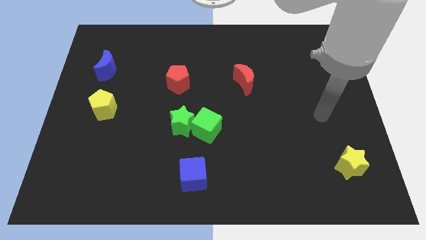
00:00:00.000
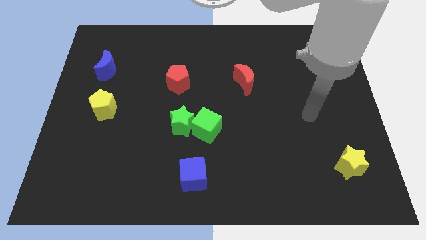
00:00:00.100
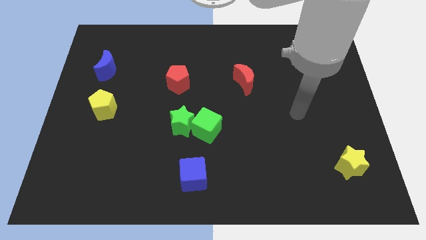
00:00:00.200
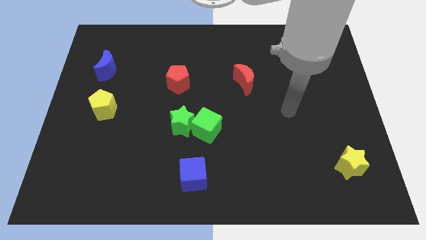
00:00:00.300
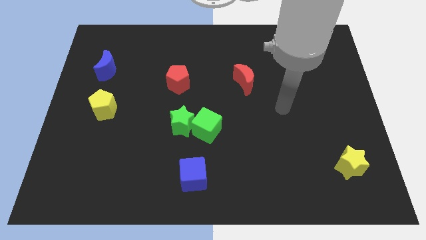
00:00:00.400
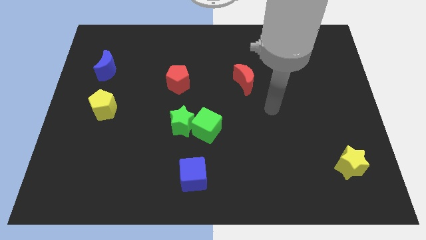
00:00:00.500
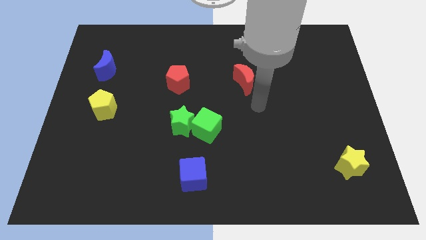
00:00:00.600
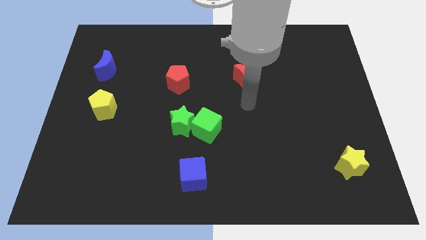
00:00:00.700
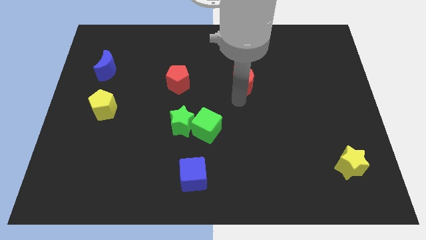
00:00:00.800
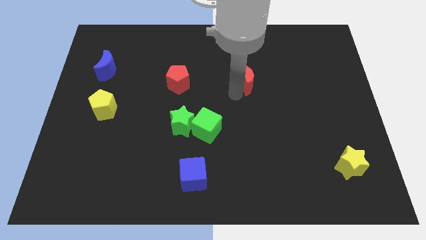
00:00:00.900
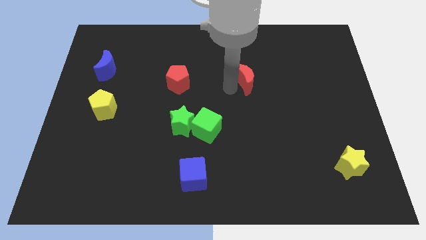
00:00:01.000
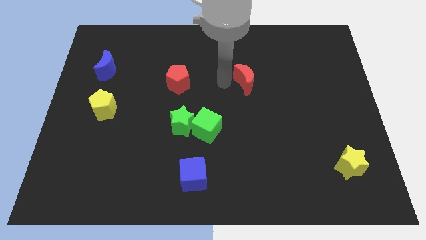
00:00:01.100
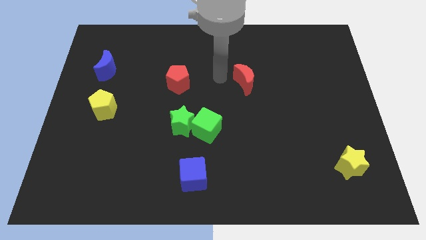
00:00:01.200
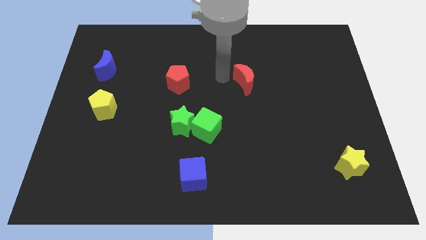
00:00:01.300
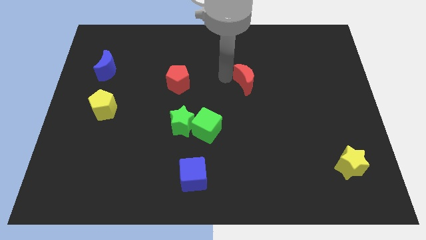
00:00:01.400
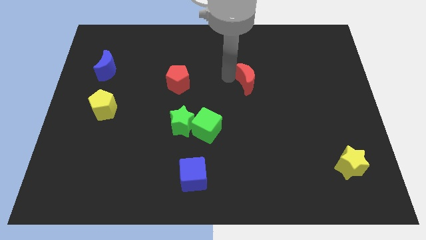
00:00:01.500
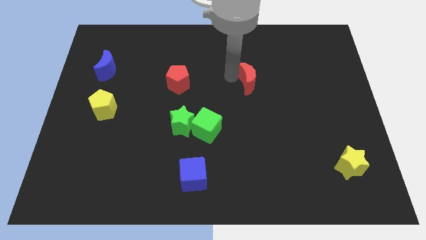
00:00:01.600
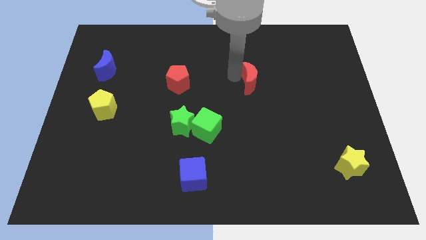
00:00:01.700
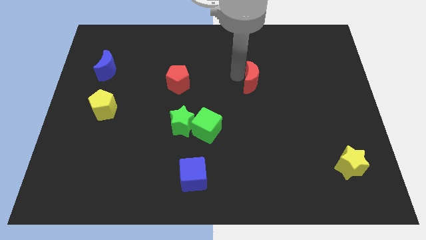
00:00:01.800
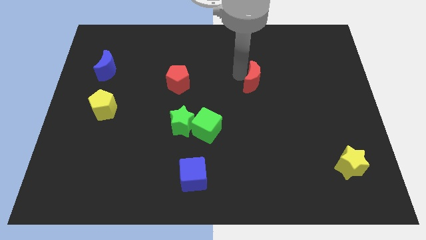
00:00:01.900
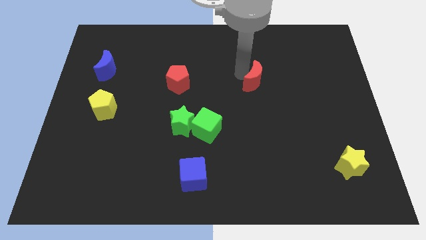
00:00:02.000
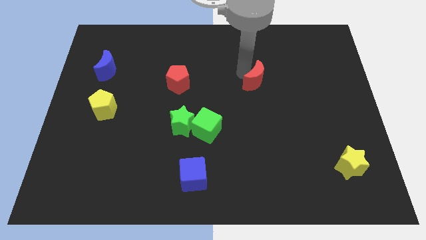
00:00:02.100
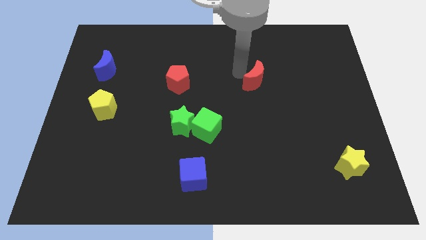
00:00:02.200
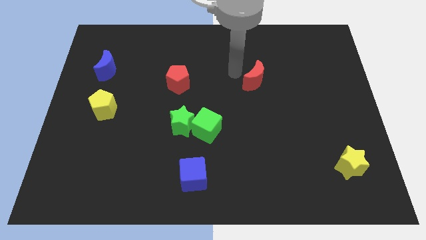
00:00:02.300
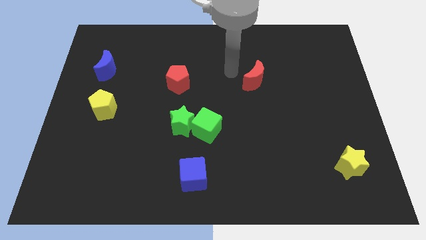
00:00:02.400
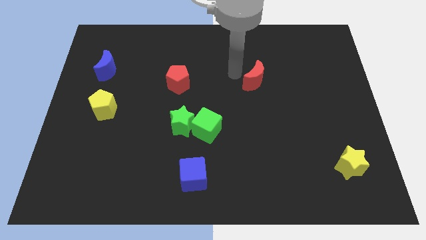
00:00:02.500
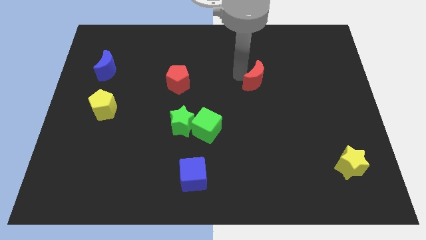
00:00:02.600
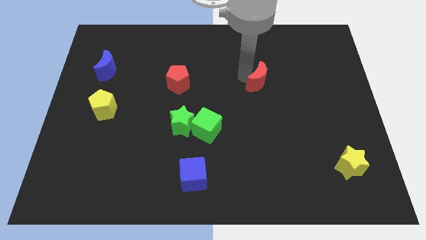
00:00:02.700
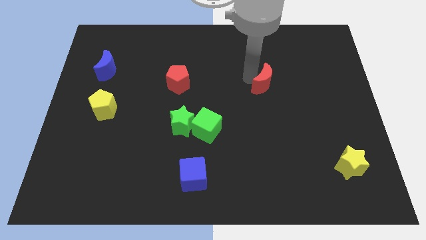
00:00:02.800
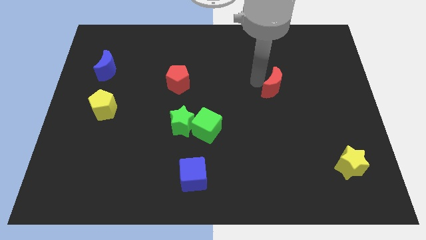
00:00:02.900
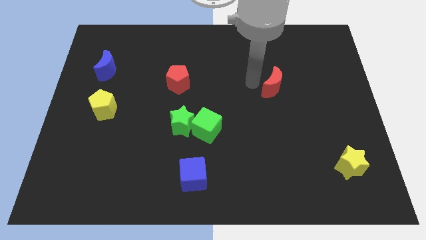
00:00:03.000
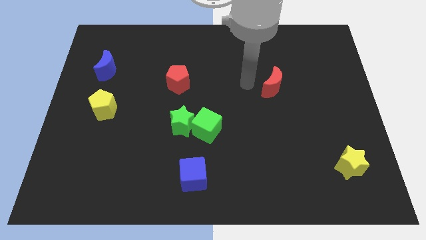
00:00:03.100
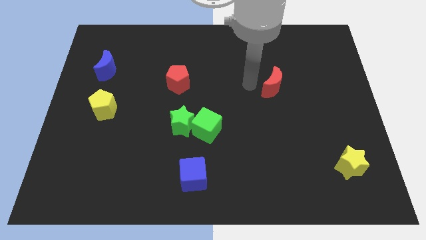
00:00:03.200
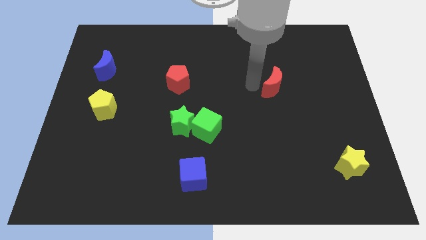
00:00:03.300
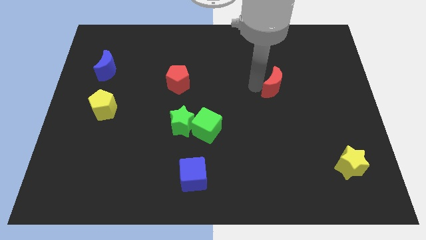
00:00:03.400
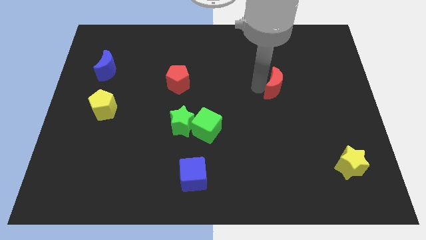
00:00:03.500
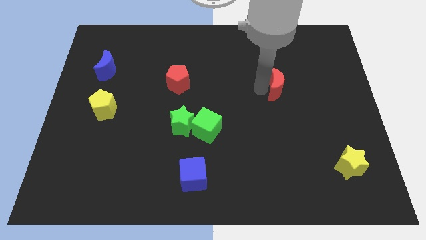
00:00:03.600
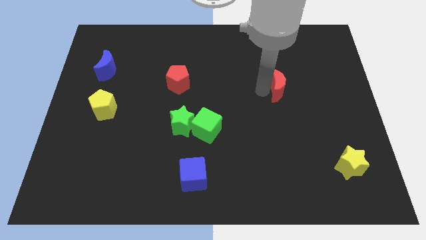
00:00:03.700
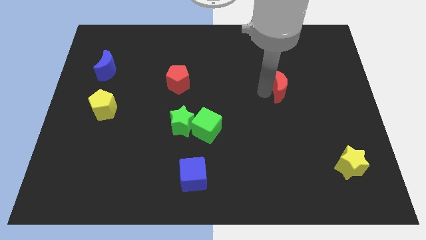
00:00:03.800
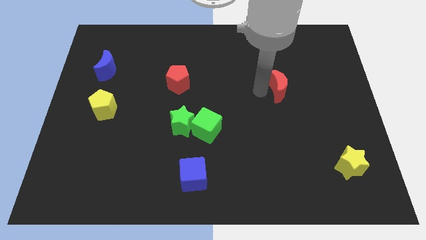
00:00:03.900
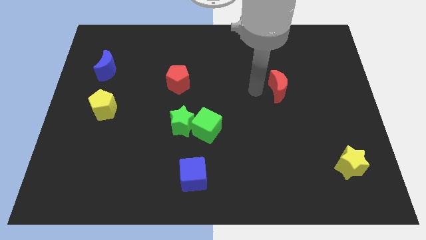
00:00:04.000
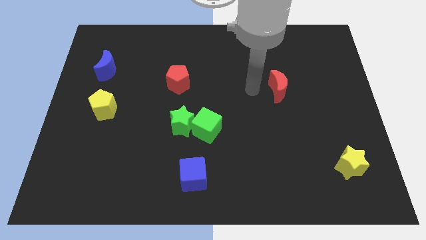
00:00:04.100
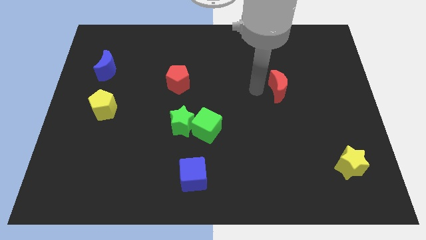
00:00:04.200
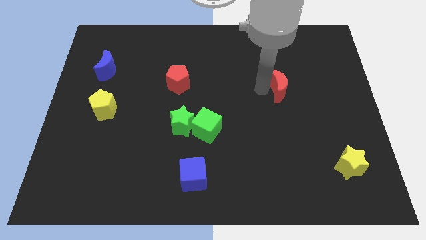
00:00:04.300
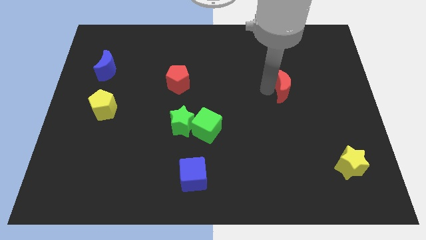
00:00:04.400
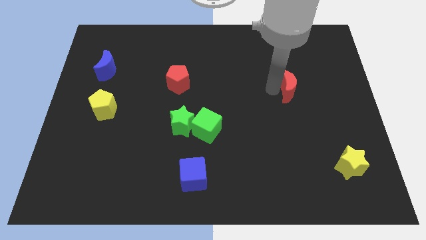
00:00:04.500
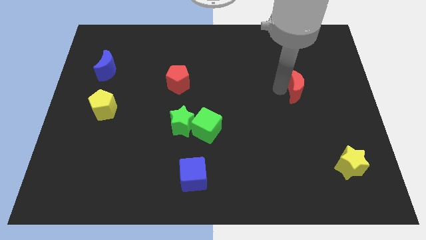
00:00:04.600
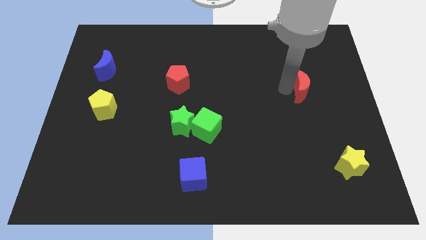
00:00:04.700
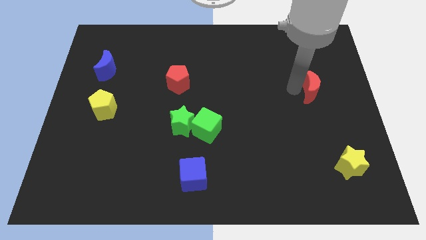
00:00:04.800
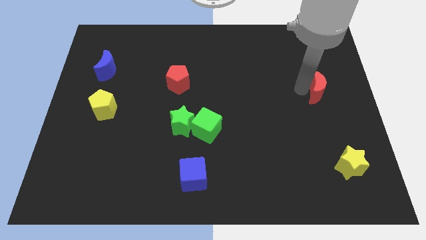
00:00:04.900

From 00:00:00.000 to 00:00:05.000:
move the red moon to the right side

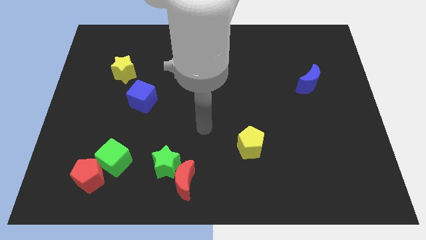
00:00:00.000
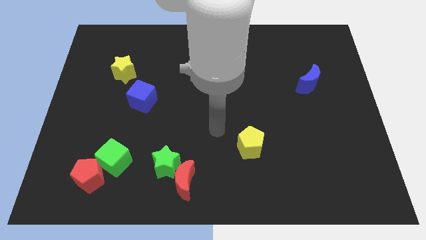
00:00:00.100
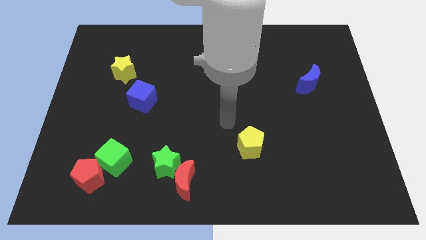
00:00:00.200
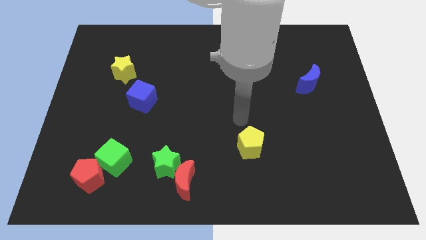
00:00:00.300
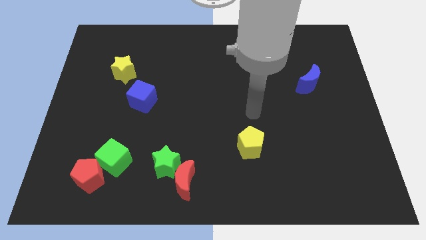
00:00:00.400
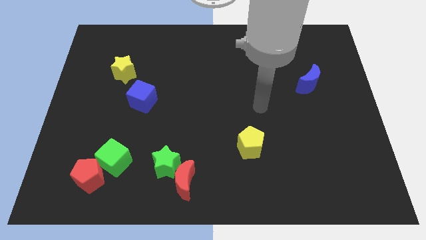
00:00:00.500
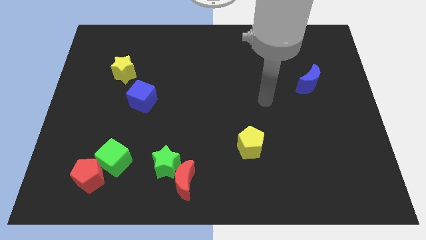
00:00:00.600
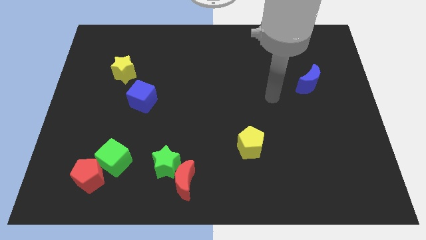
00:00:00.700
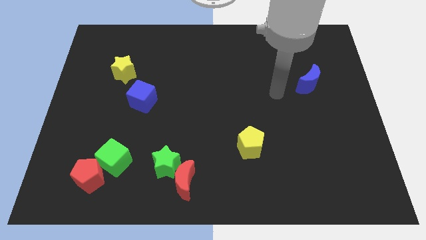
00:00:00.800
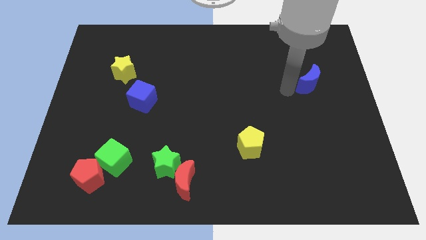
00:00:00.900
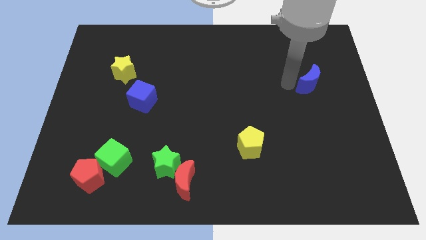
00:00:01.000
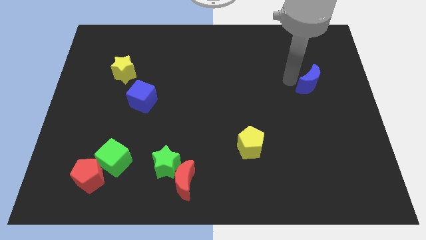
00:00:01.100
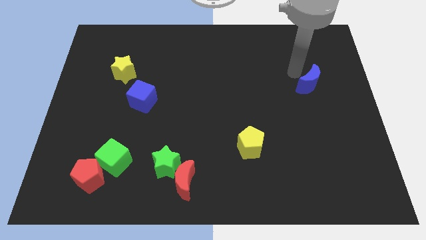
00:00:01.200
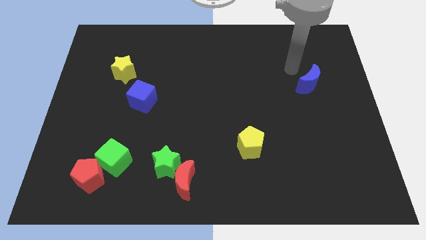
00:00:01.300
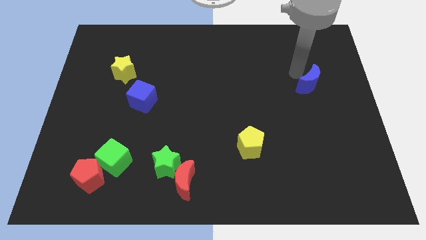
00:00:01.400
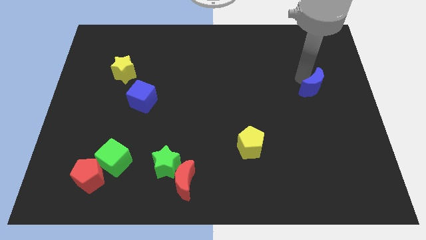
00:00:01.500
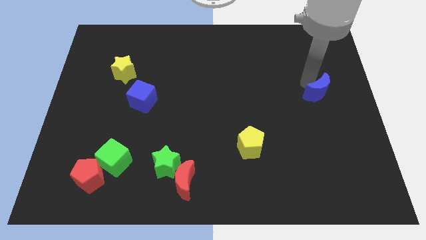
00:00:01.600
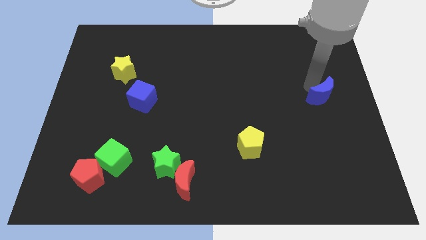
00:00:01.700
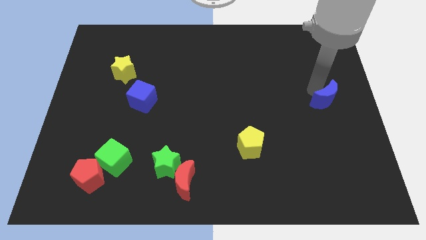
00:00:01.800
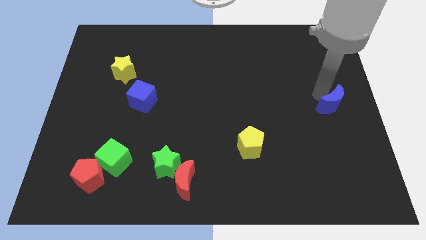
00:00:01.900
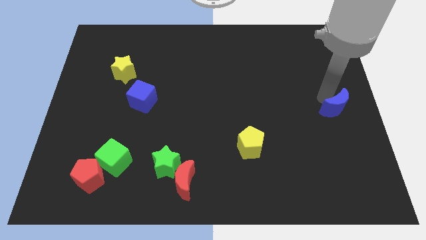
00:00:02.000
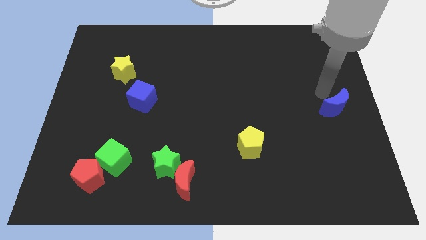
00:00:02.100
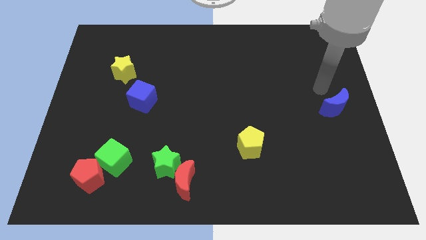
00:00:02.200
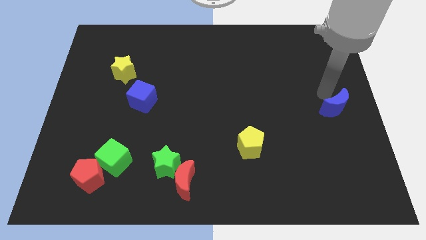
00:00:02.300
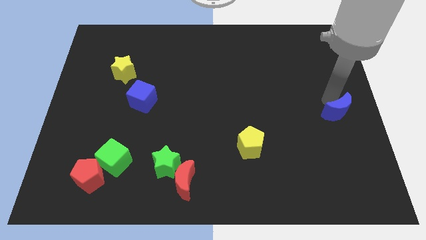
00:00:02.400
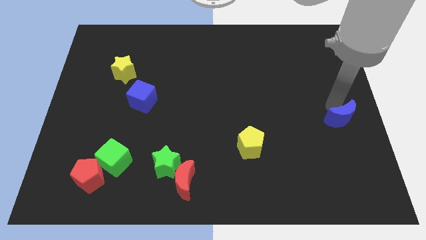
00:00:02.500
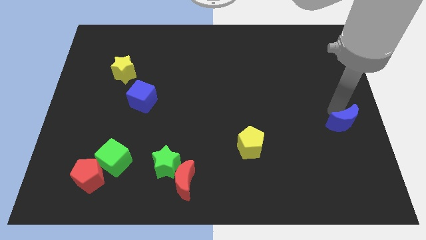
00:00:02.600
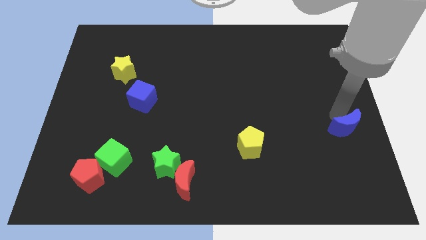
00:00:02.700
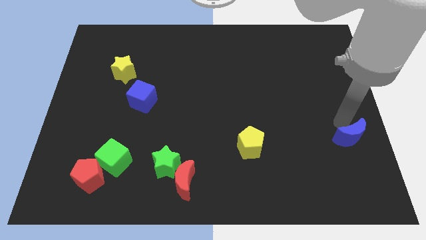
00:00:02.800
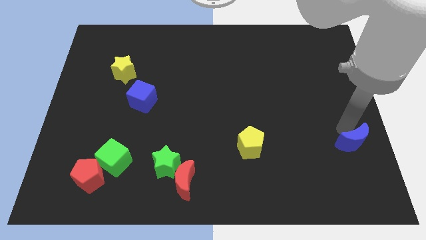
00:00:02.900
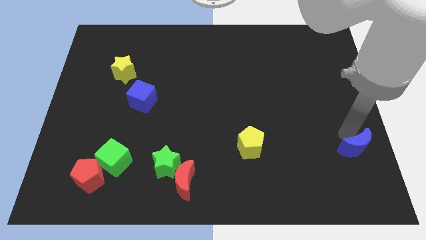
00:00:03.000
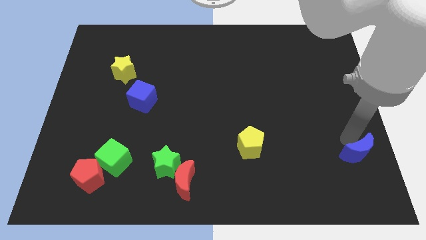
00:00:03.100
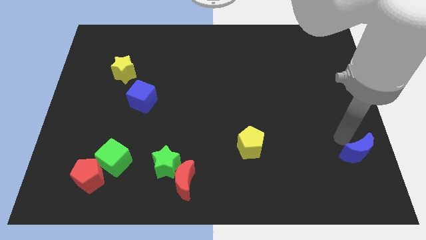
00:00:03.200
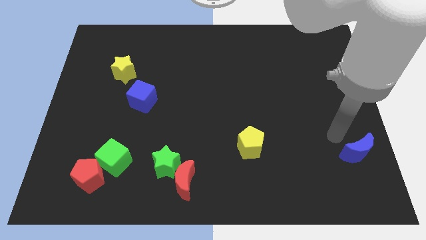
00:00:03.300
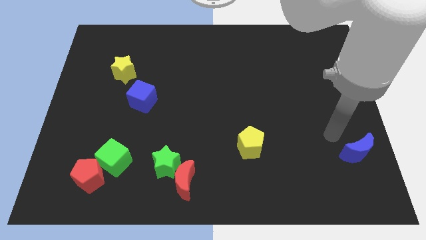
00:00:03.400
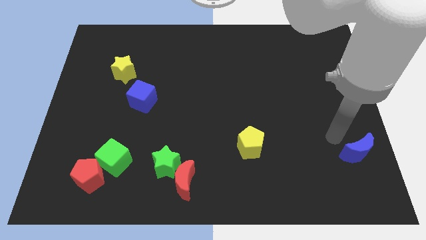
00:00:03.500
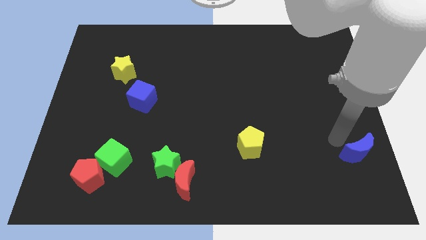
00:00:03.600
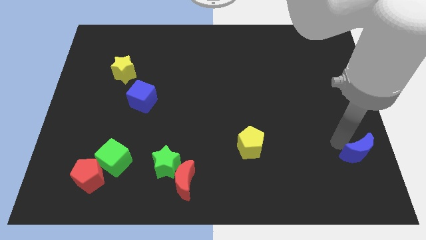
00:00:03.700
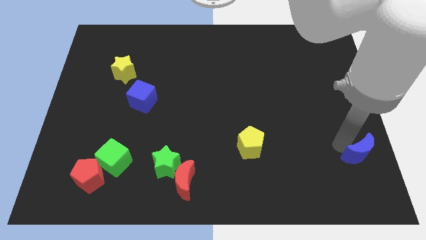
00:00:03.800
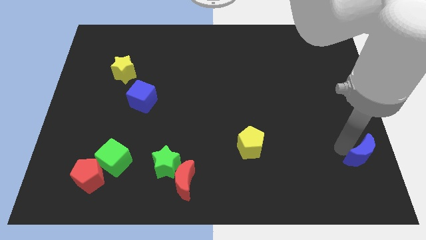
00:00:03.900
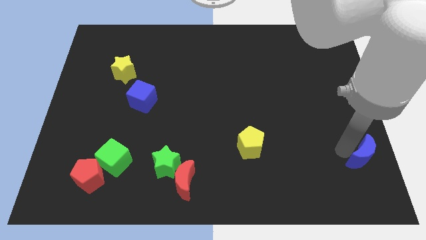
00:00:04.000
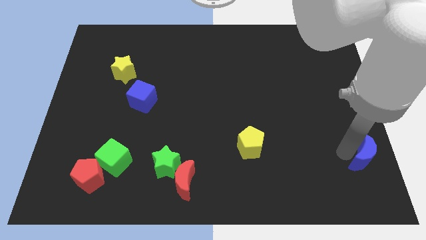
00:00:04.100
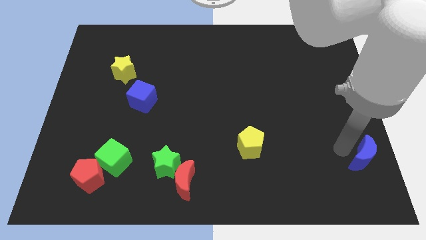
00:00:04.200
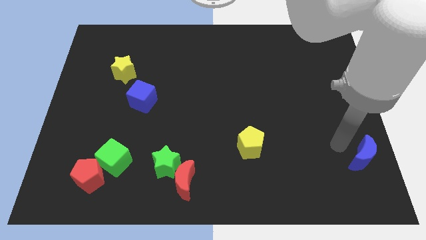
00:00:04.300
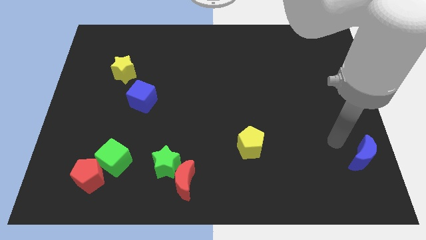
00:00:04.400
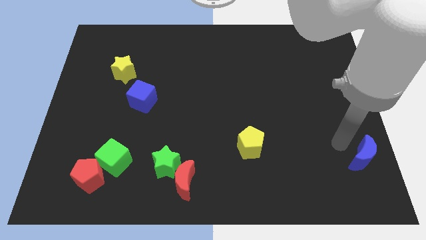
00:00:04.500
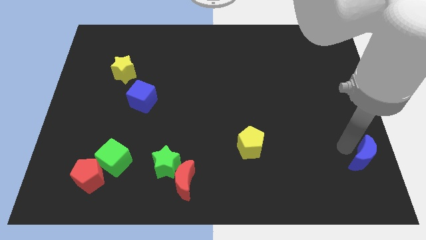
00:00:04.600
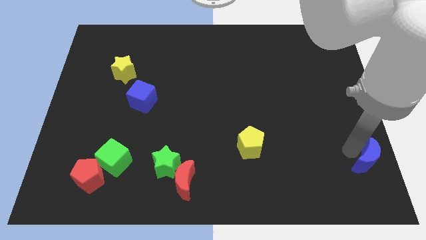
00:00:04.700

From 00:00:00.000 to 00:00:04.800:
put the blue moon to the bottom right
